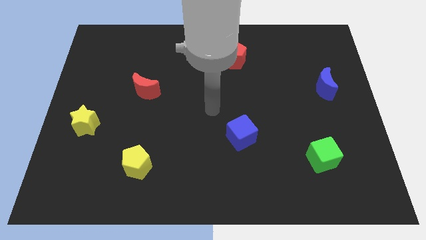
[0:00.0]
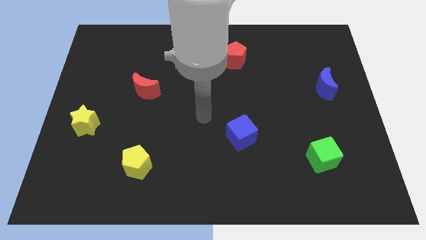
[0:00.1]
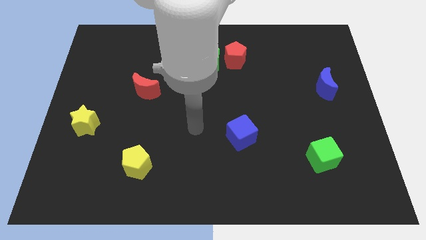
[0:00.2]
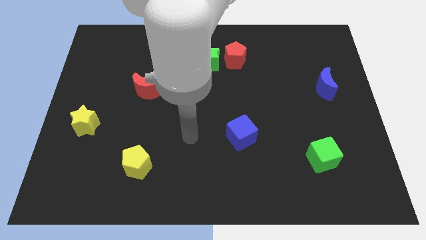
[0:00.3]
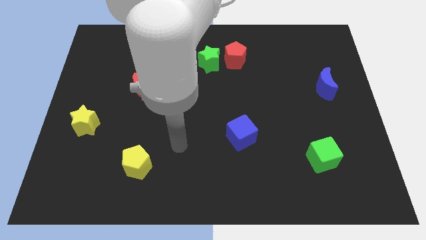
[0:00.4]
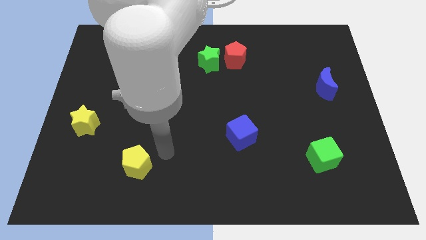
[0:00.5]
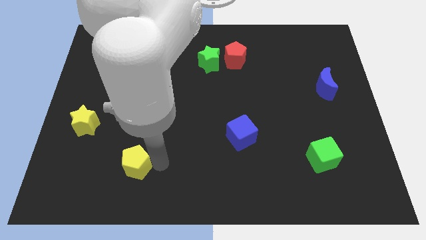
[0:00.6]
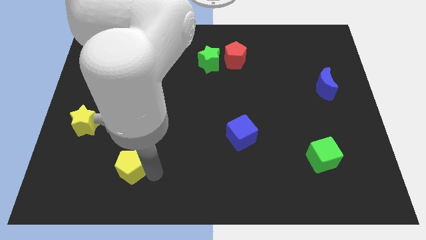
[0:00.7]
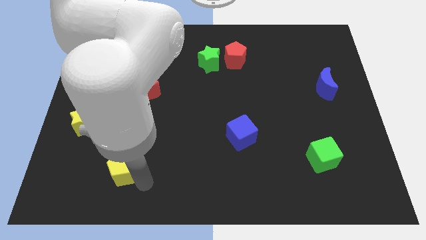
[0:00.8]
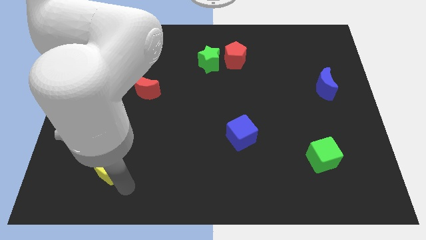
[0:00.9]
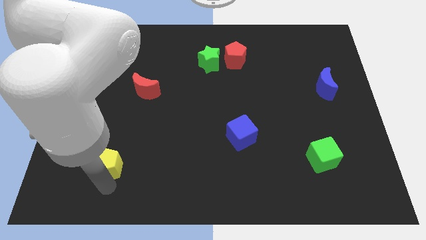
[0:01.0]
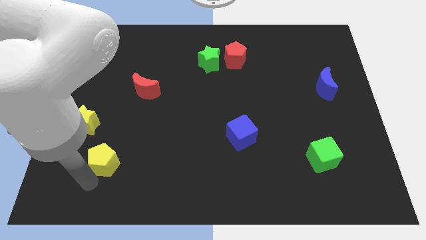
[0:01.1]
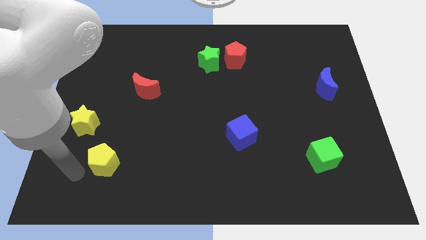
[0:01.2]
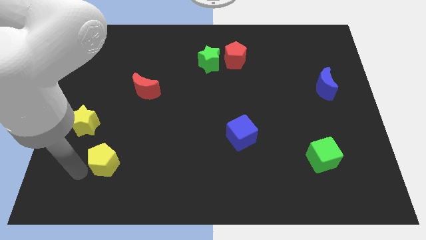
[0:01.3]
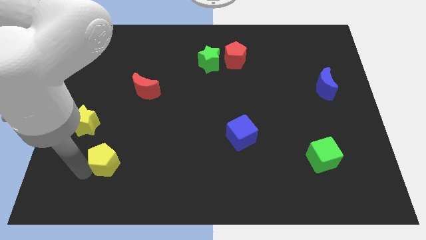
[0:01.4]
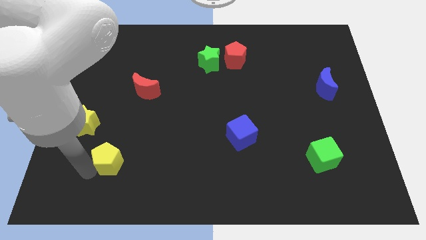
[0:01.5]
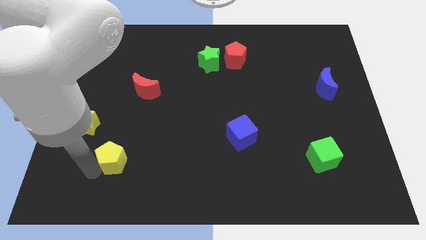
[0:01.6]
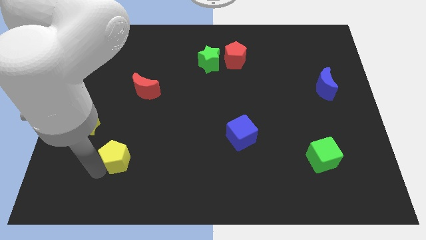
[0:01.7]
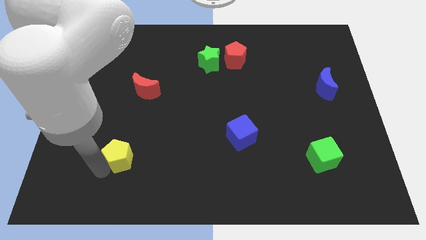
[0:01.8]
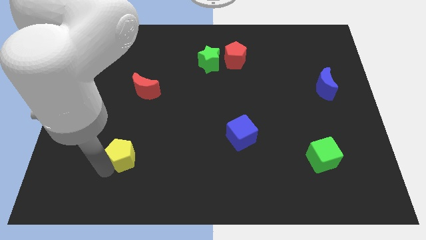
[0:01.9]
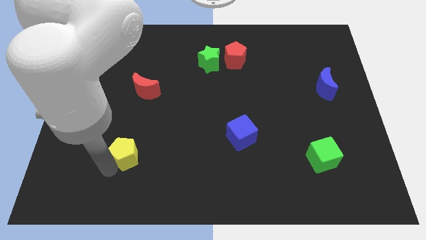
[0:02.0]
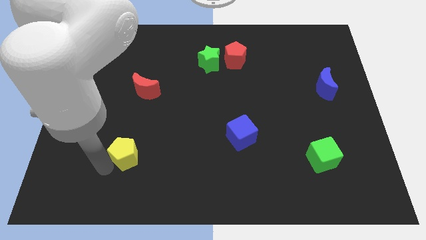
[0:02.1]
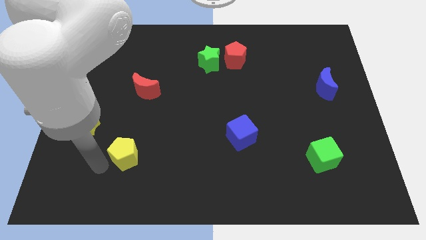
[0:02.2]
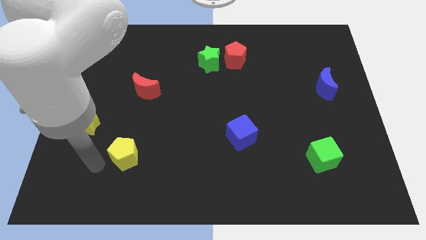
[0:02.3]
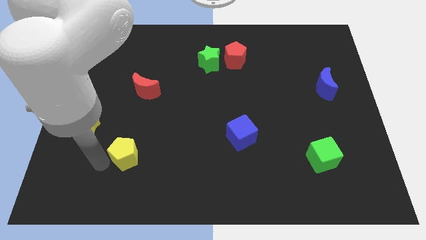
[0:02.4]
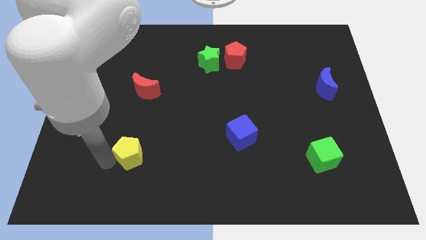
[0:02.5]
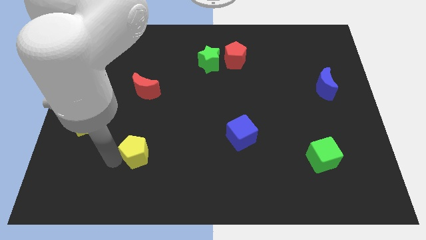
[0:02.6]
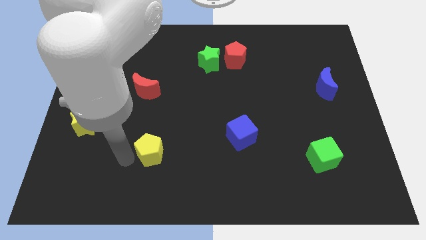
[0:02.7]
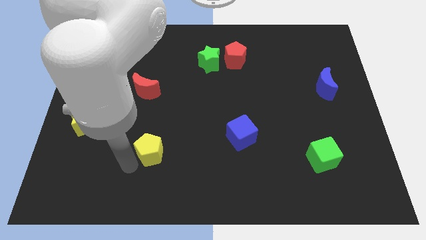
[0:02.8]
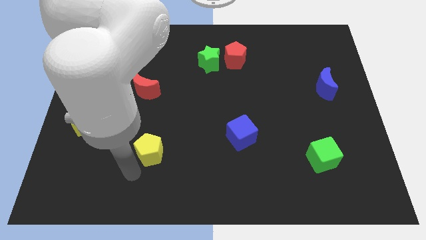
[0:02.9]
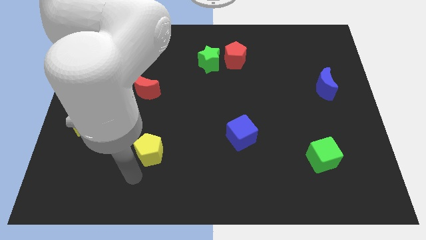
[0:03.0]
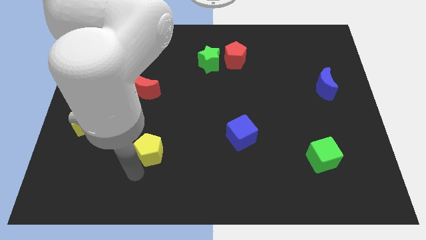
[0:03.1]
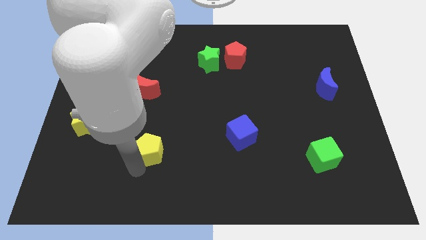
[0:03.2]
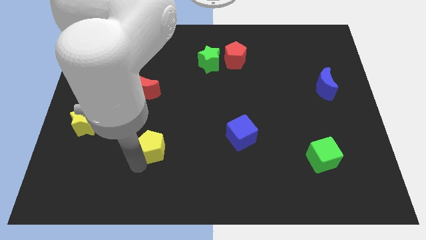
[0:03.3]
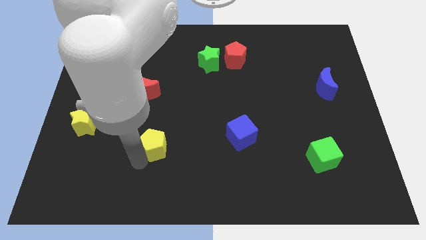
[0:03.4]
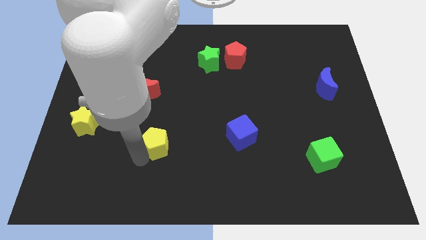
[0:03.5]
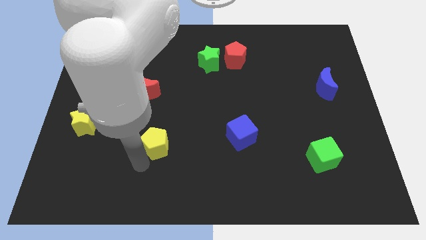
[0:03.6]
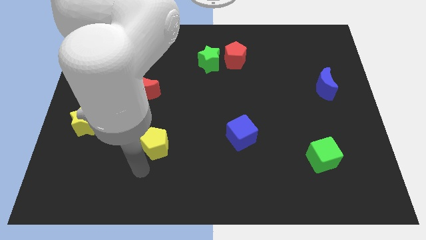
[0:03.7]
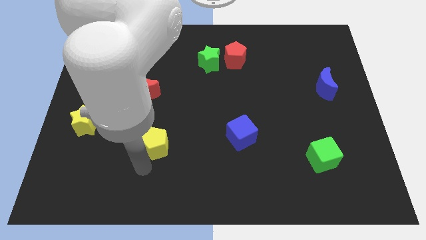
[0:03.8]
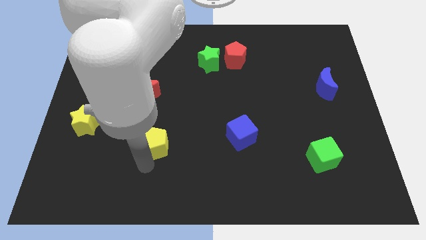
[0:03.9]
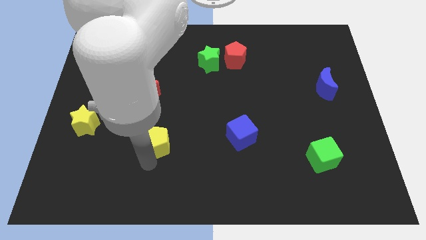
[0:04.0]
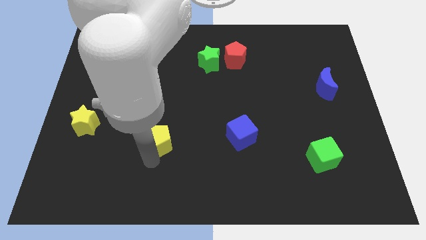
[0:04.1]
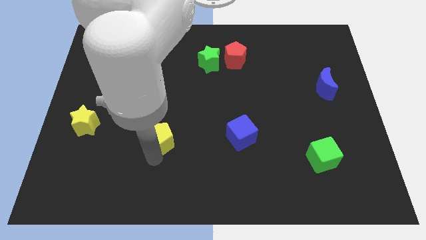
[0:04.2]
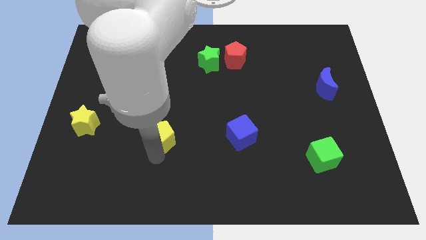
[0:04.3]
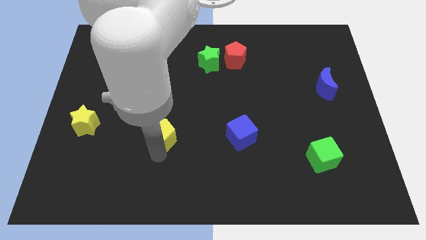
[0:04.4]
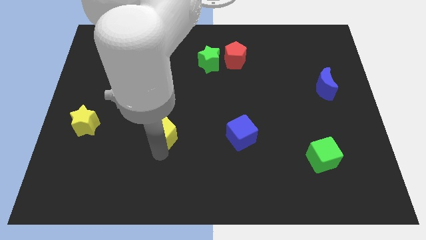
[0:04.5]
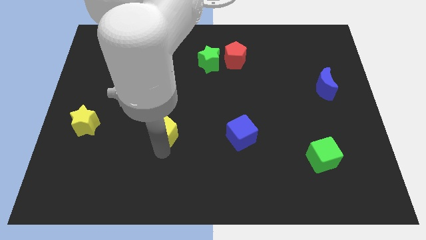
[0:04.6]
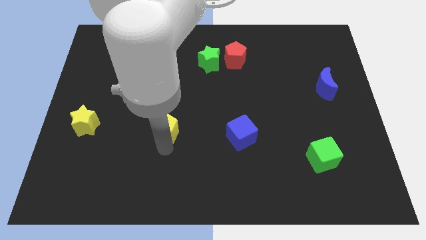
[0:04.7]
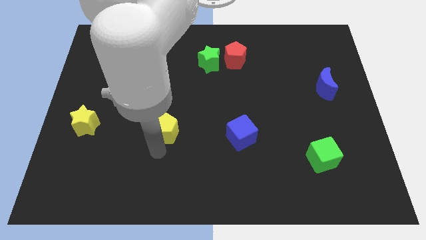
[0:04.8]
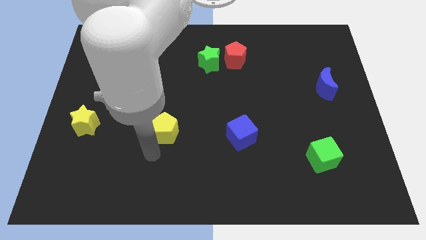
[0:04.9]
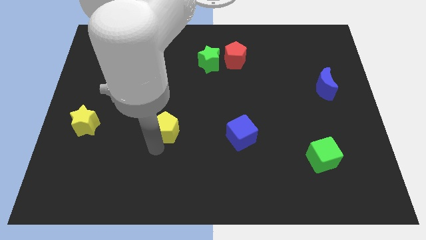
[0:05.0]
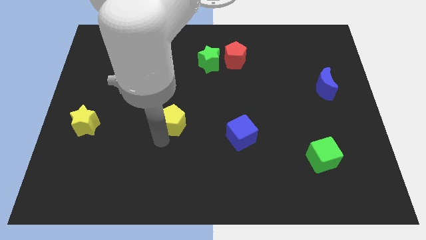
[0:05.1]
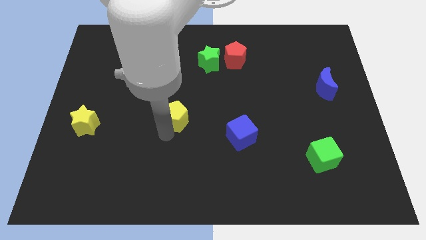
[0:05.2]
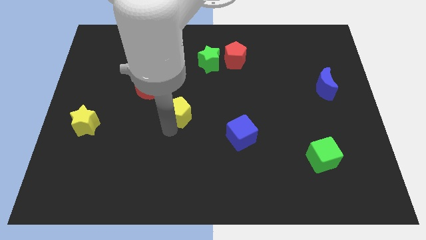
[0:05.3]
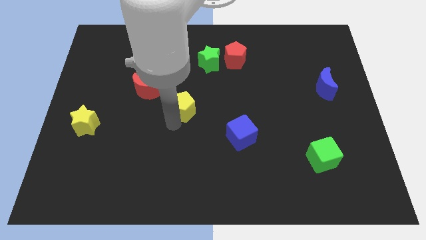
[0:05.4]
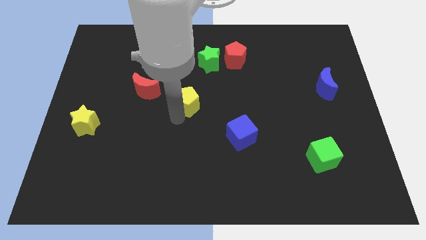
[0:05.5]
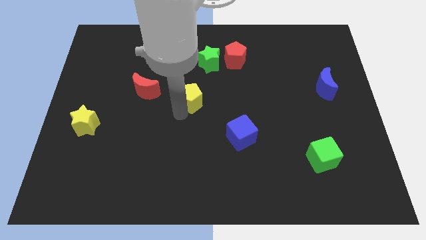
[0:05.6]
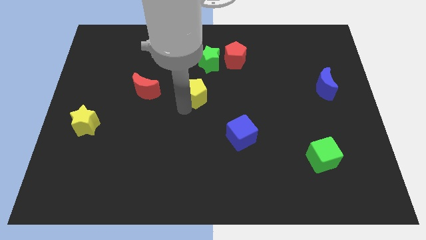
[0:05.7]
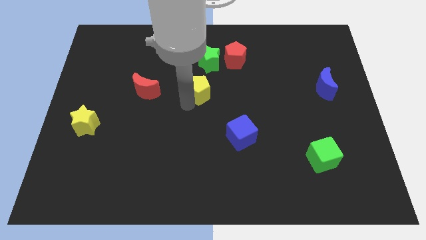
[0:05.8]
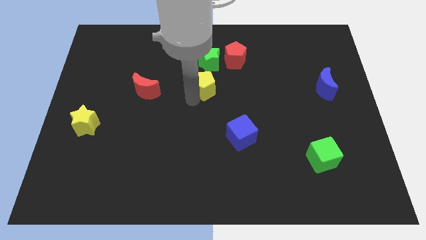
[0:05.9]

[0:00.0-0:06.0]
slide the yellow pentagon to the bottom left of the red pentagon

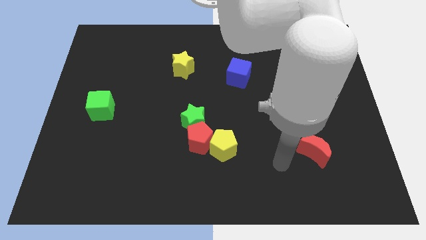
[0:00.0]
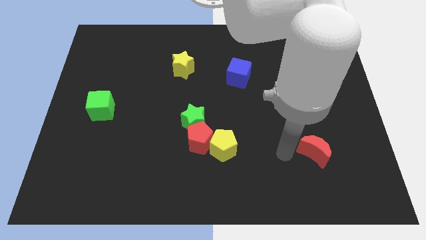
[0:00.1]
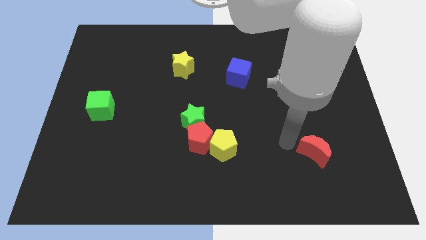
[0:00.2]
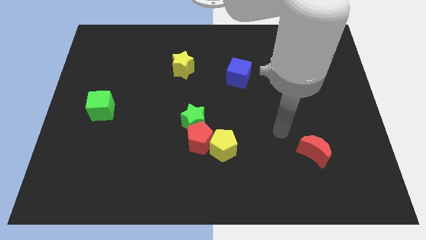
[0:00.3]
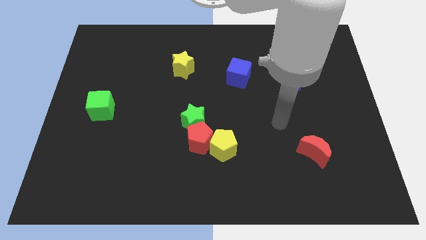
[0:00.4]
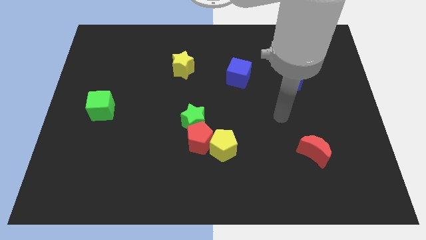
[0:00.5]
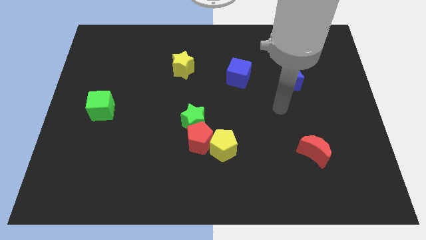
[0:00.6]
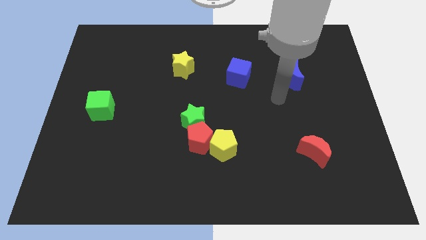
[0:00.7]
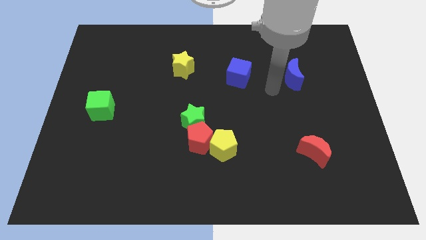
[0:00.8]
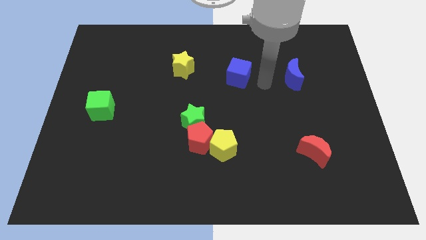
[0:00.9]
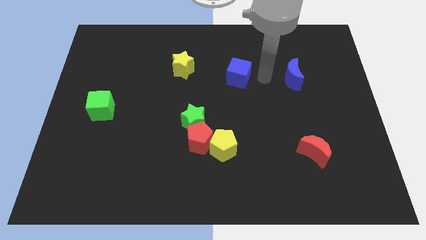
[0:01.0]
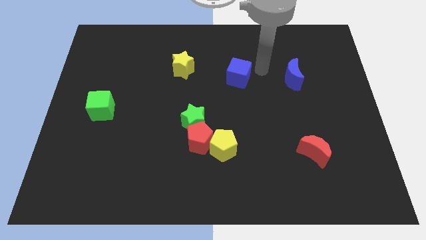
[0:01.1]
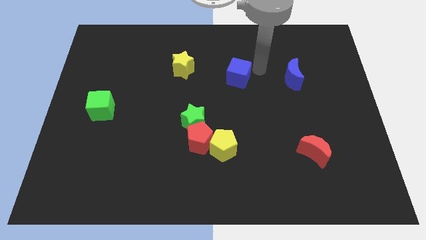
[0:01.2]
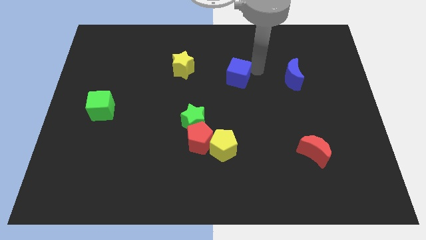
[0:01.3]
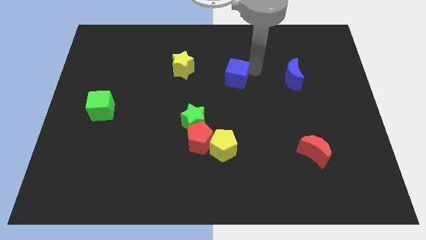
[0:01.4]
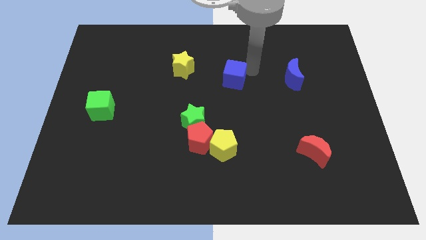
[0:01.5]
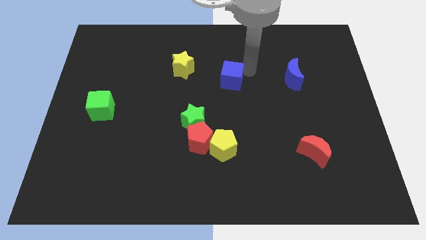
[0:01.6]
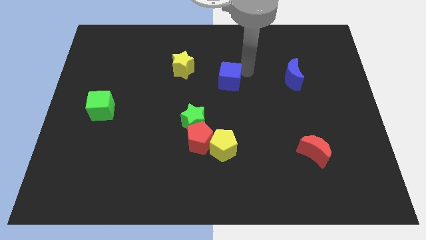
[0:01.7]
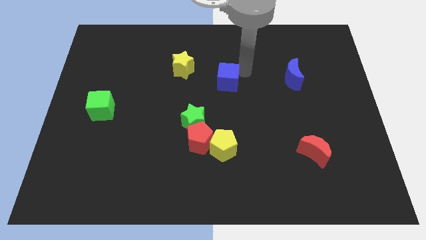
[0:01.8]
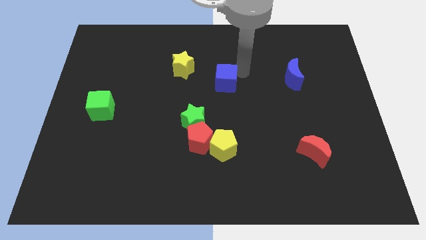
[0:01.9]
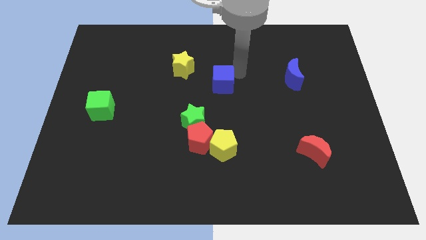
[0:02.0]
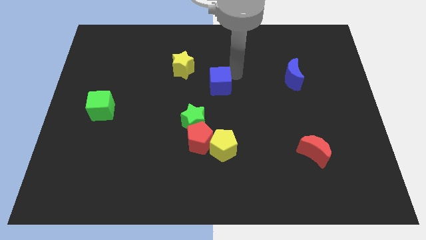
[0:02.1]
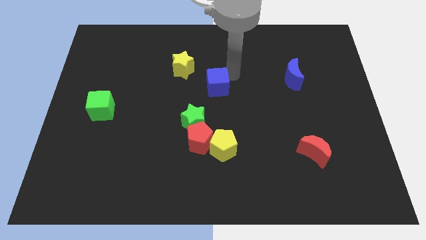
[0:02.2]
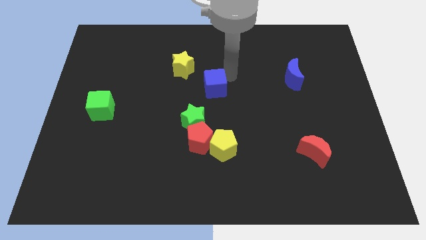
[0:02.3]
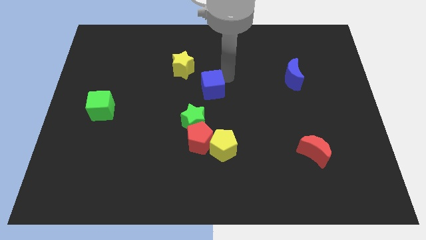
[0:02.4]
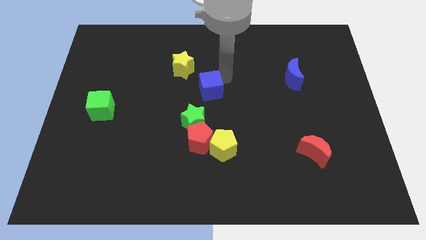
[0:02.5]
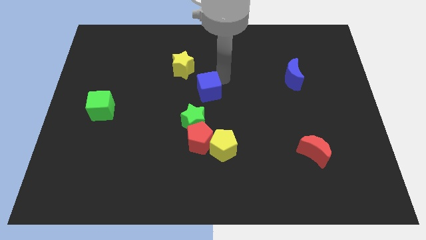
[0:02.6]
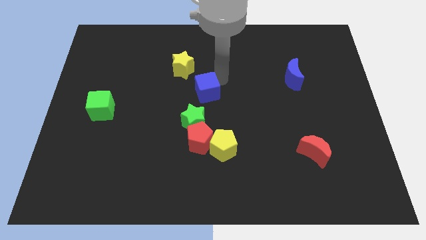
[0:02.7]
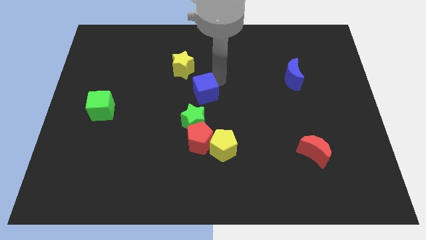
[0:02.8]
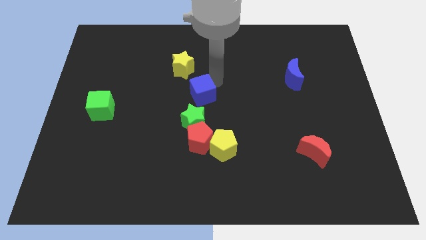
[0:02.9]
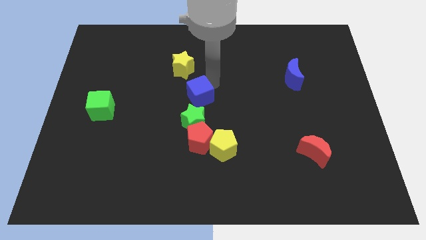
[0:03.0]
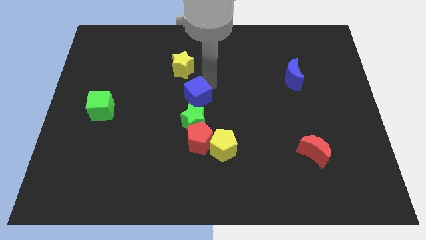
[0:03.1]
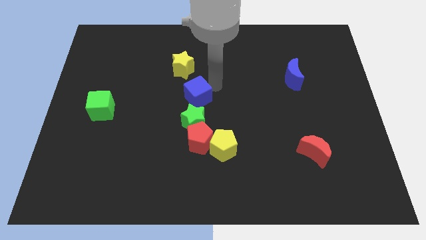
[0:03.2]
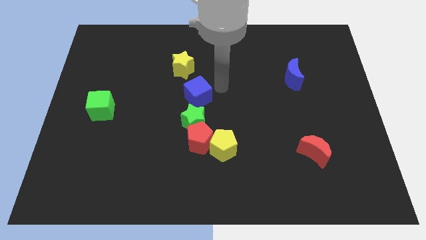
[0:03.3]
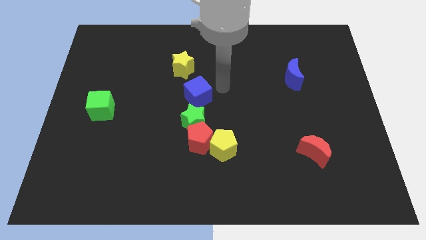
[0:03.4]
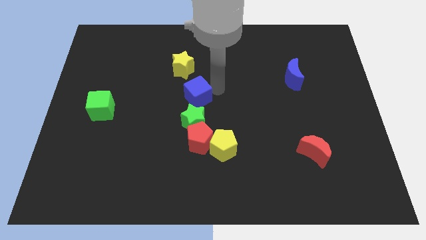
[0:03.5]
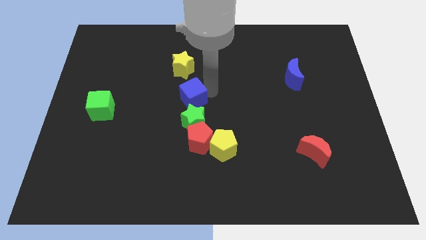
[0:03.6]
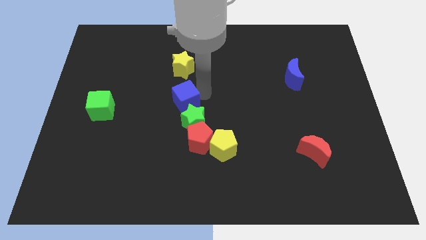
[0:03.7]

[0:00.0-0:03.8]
push the blue cube diagonally up and to the left of the green star
